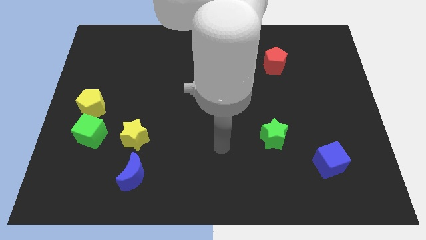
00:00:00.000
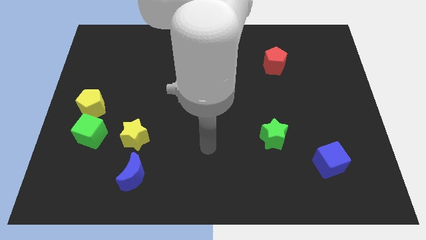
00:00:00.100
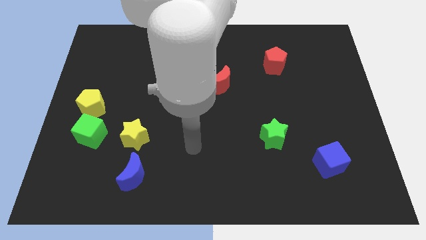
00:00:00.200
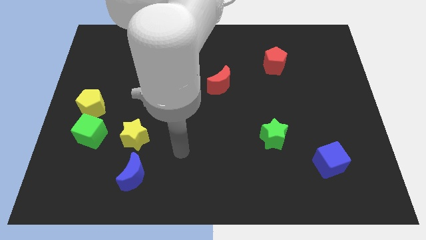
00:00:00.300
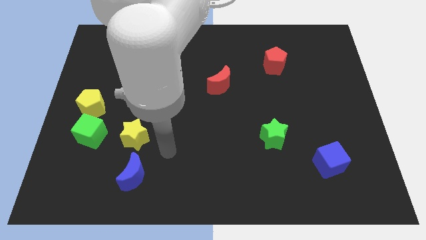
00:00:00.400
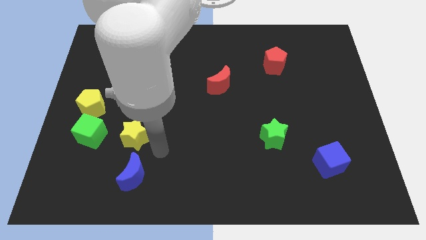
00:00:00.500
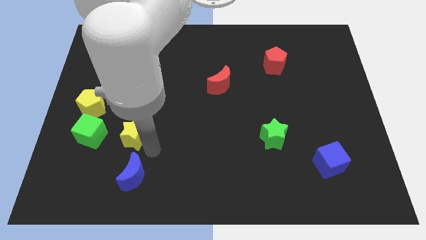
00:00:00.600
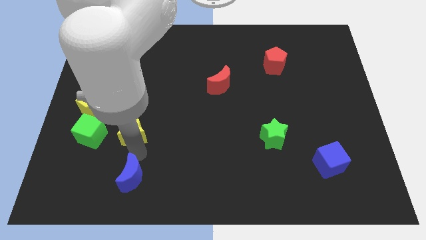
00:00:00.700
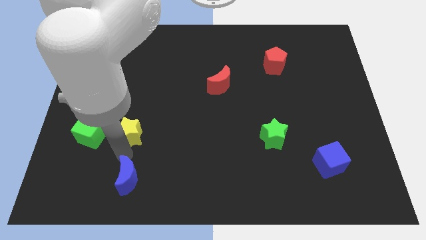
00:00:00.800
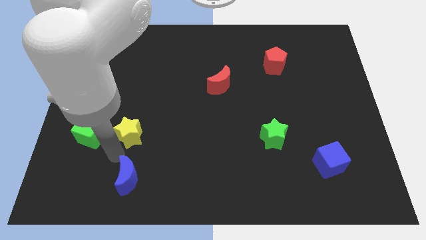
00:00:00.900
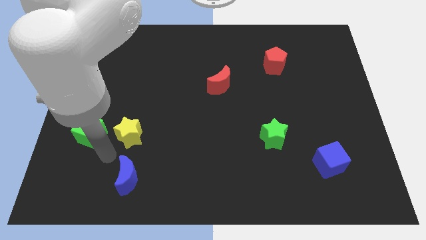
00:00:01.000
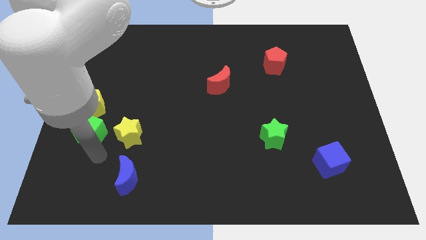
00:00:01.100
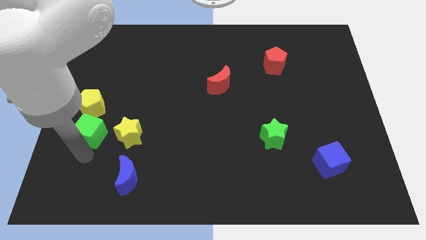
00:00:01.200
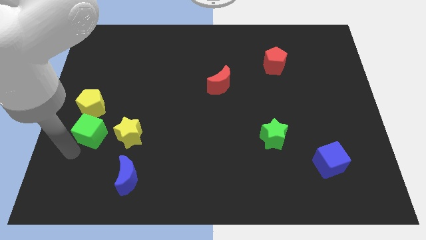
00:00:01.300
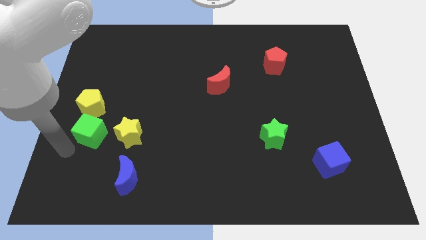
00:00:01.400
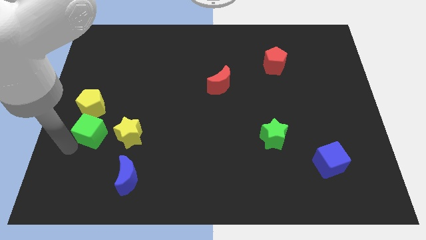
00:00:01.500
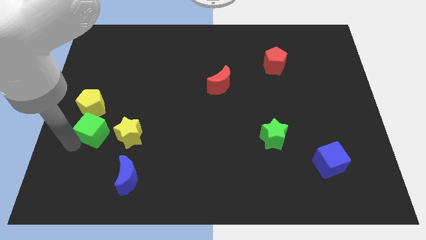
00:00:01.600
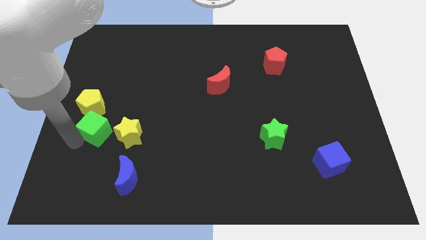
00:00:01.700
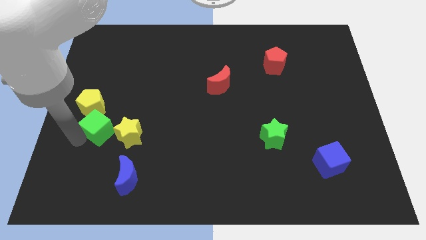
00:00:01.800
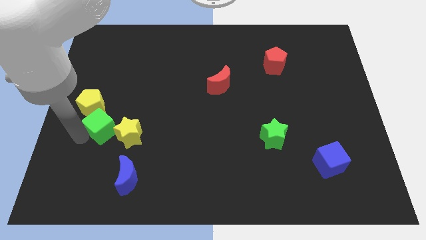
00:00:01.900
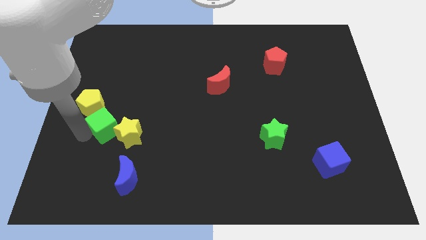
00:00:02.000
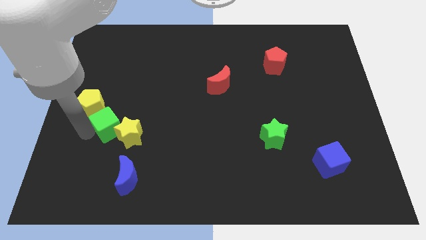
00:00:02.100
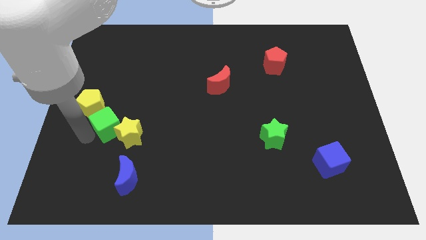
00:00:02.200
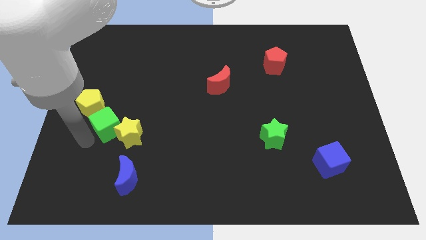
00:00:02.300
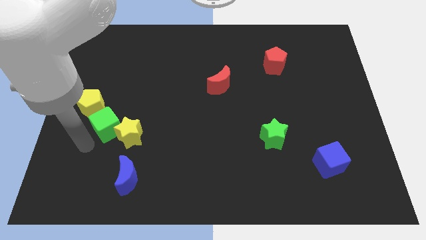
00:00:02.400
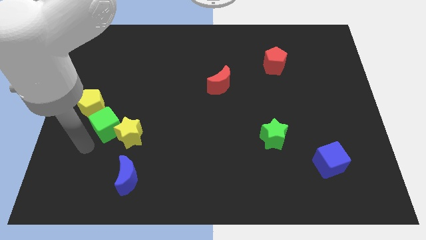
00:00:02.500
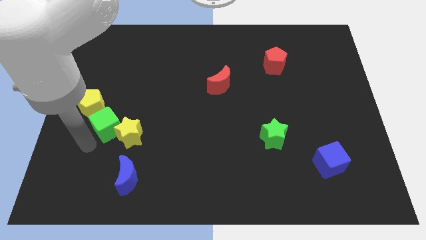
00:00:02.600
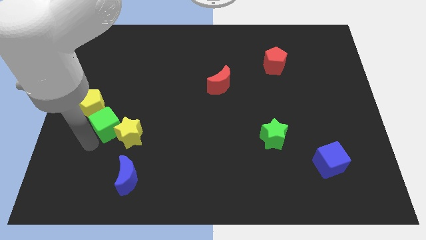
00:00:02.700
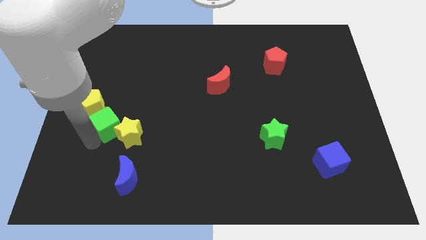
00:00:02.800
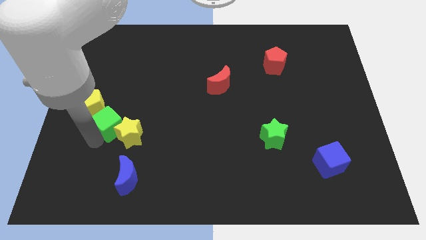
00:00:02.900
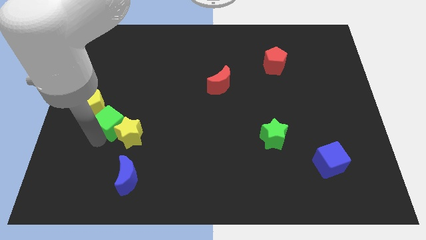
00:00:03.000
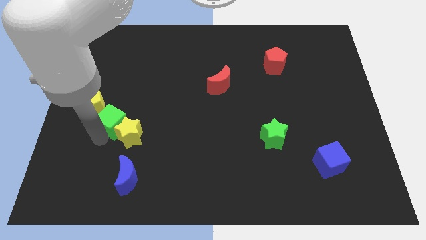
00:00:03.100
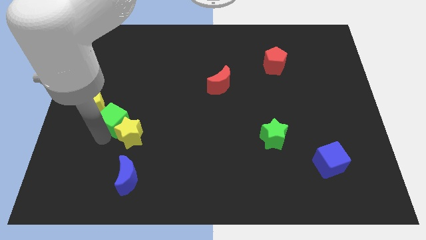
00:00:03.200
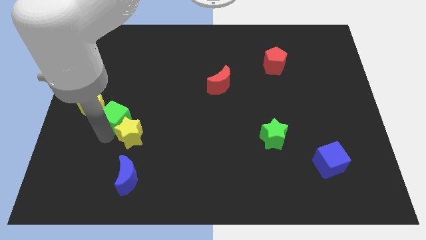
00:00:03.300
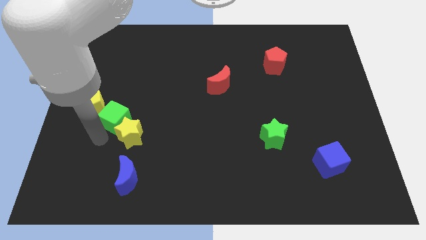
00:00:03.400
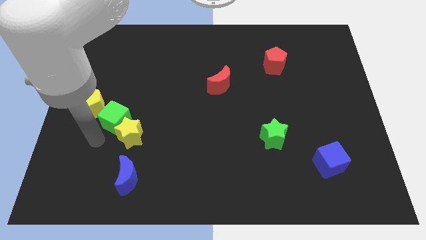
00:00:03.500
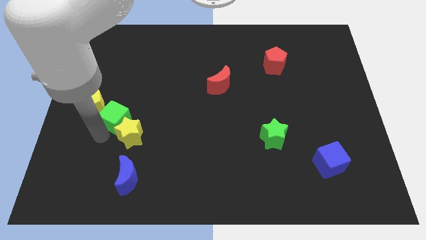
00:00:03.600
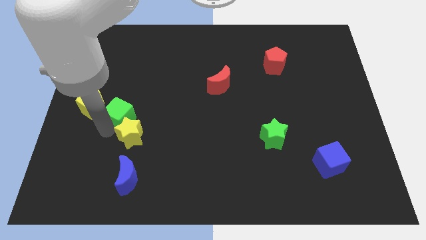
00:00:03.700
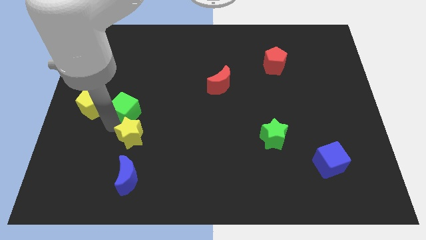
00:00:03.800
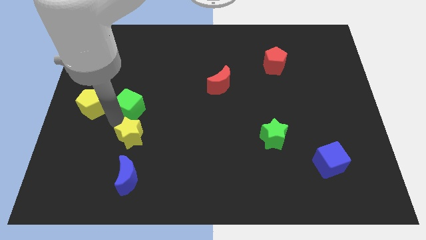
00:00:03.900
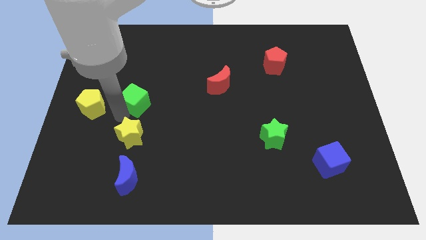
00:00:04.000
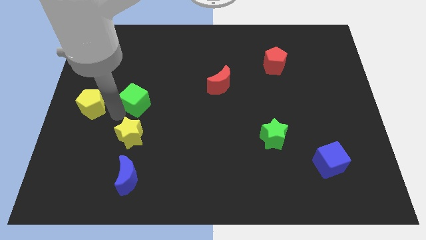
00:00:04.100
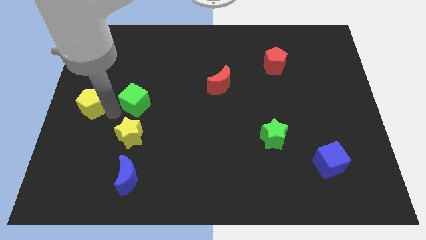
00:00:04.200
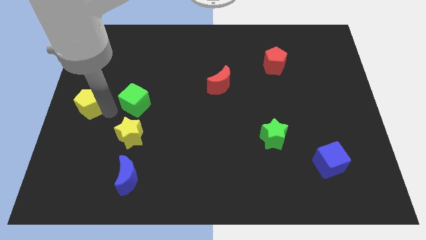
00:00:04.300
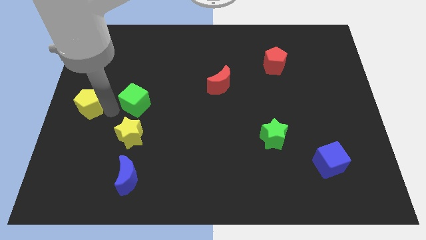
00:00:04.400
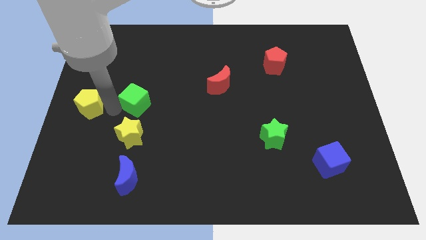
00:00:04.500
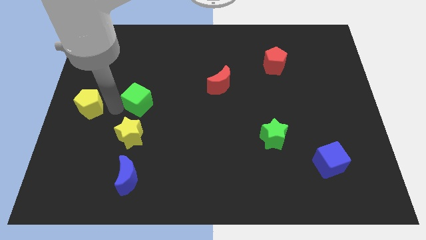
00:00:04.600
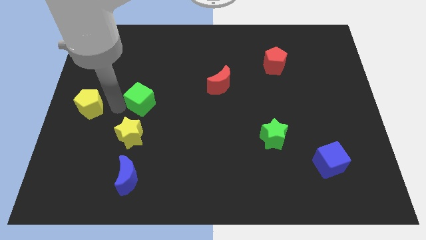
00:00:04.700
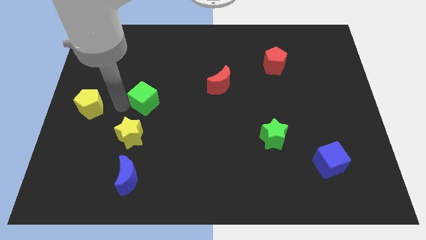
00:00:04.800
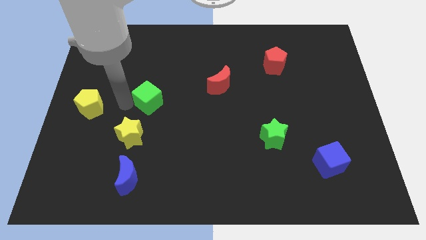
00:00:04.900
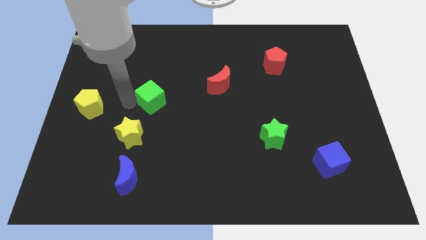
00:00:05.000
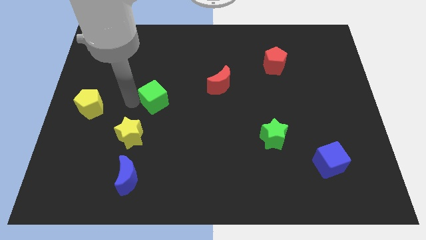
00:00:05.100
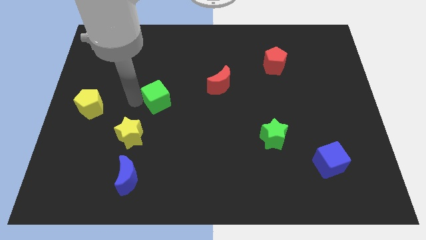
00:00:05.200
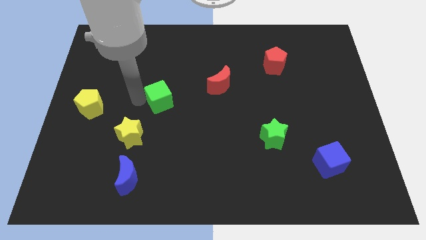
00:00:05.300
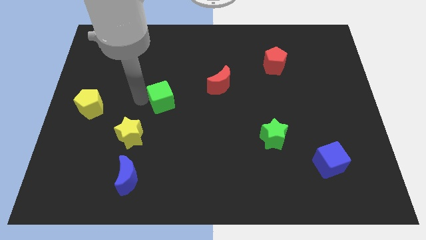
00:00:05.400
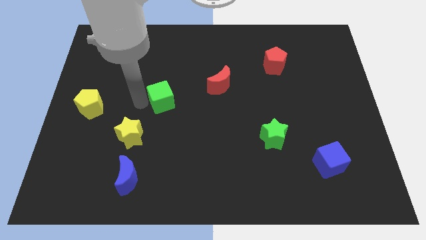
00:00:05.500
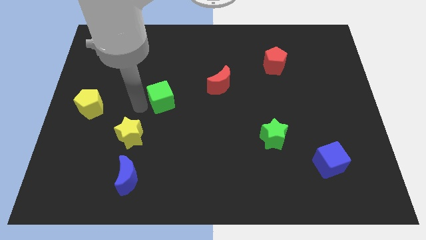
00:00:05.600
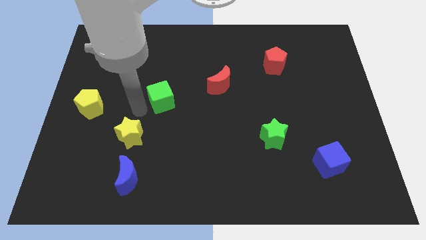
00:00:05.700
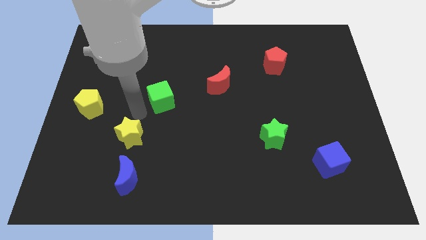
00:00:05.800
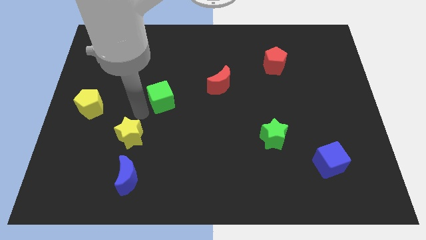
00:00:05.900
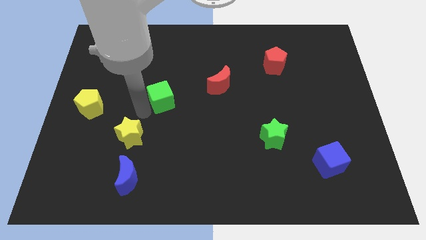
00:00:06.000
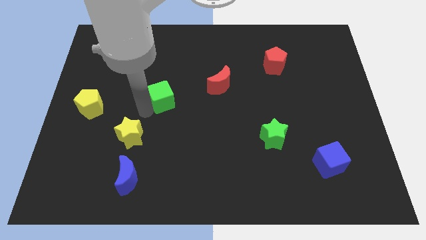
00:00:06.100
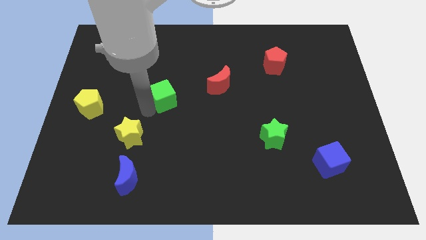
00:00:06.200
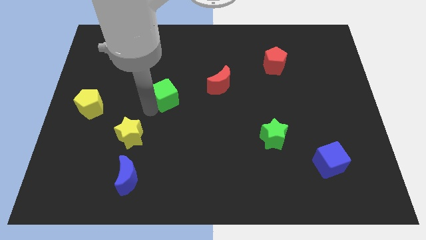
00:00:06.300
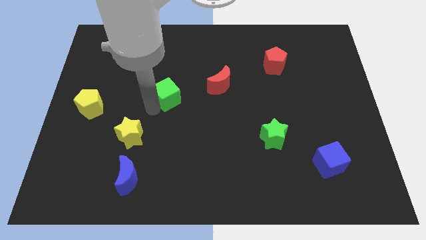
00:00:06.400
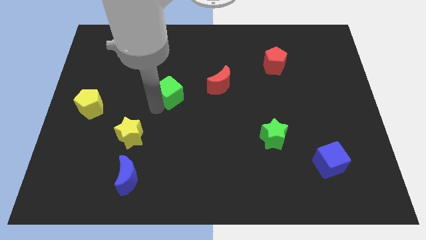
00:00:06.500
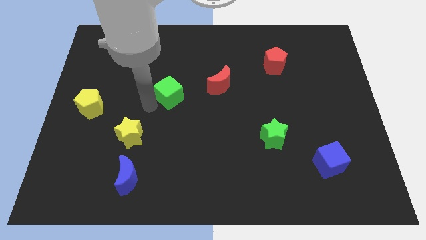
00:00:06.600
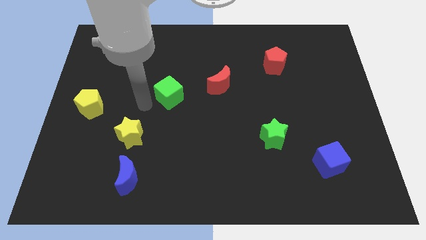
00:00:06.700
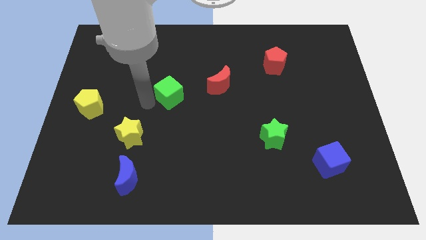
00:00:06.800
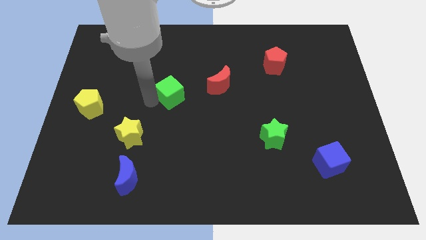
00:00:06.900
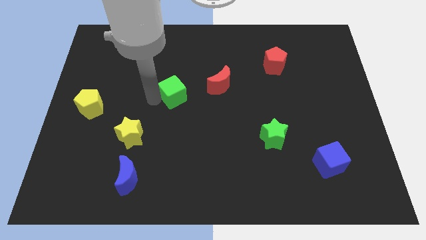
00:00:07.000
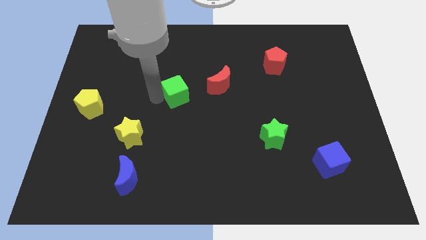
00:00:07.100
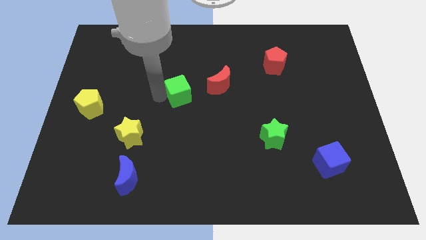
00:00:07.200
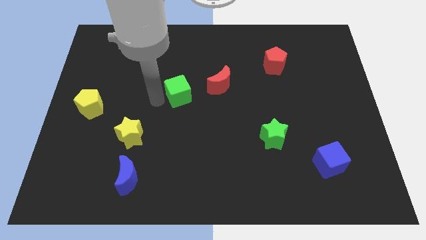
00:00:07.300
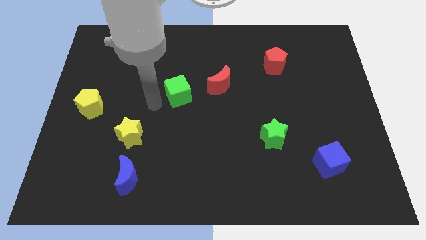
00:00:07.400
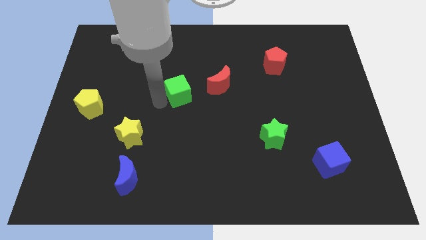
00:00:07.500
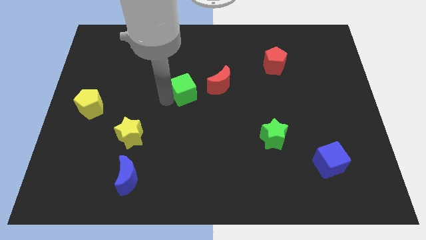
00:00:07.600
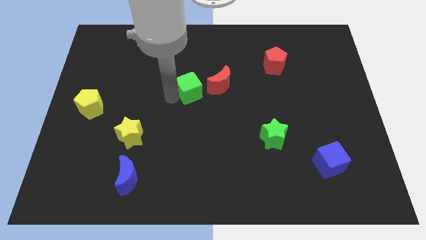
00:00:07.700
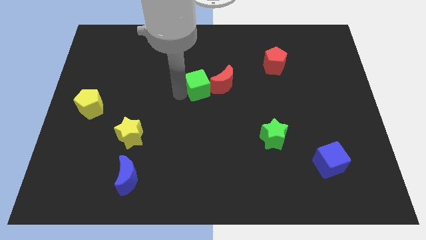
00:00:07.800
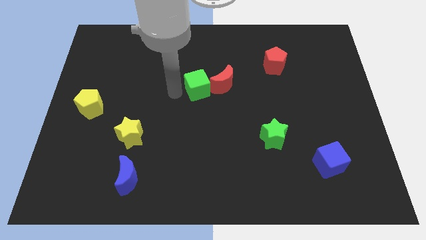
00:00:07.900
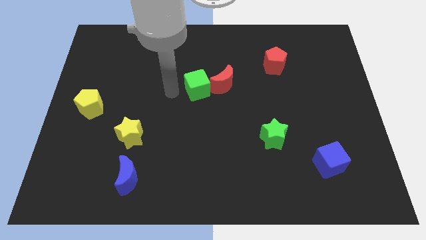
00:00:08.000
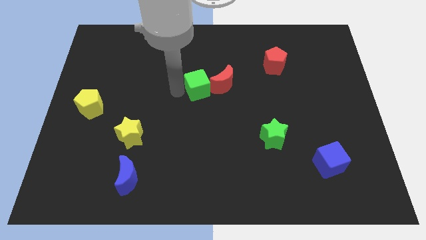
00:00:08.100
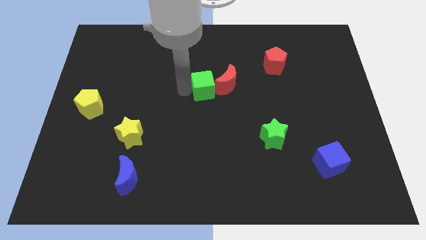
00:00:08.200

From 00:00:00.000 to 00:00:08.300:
put the green cube towards the red moon
